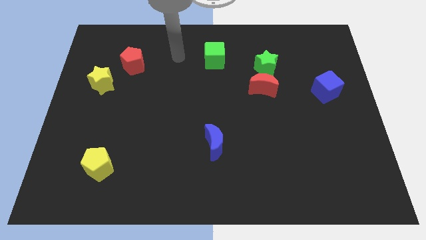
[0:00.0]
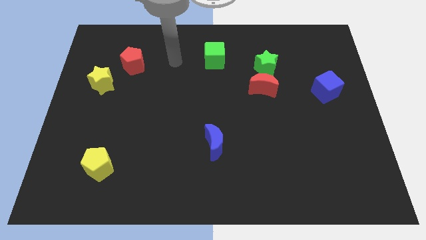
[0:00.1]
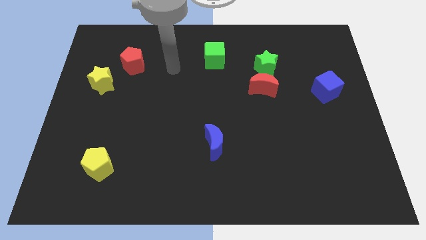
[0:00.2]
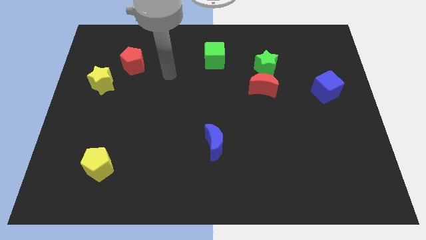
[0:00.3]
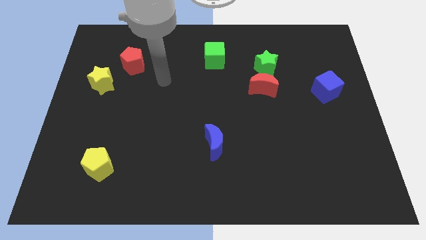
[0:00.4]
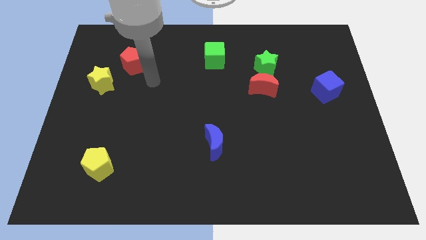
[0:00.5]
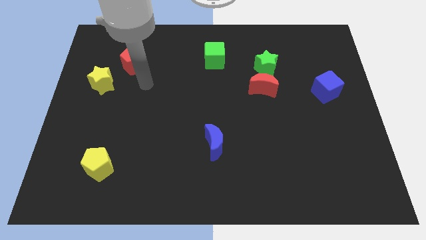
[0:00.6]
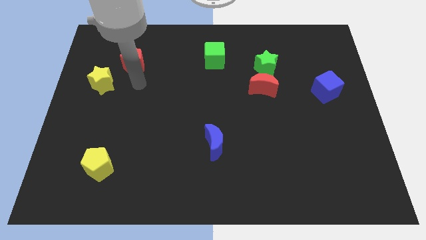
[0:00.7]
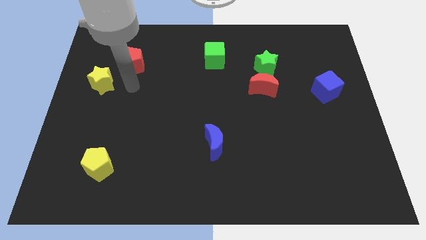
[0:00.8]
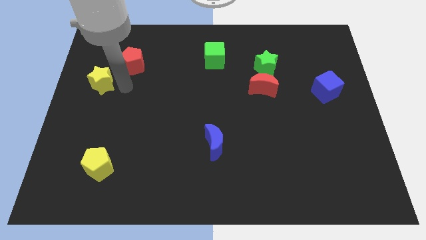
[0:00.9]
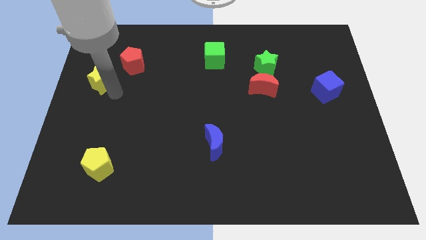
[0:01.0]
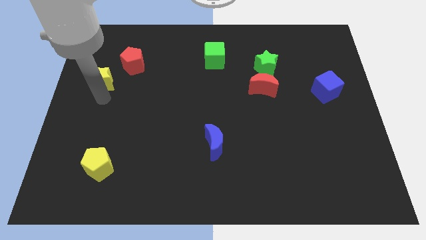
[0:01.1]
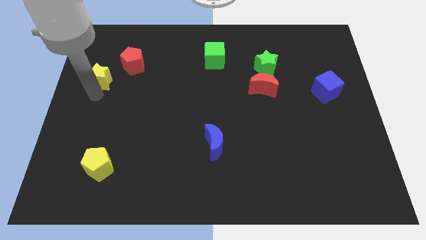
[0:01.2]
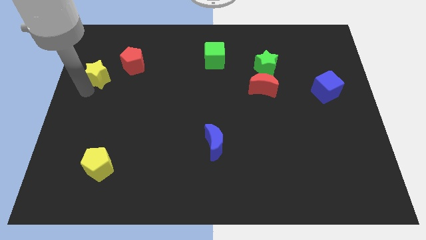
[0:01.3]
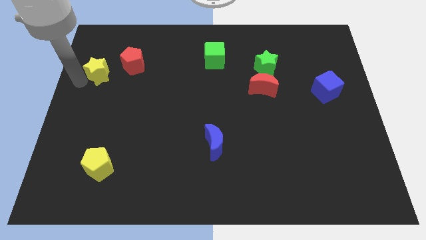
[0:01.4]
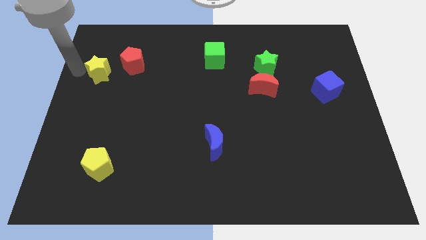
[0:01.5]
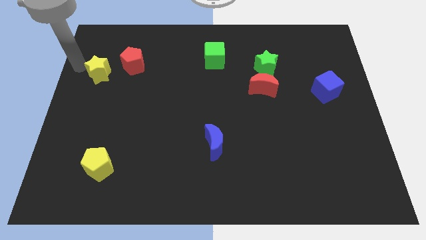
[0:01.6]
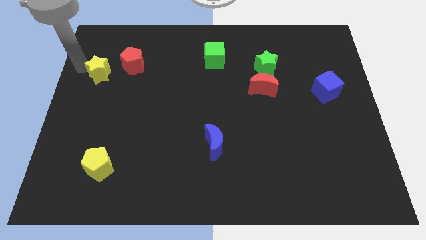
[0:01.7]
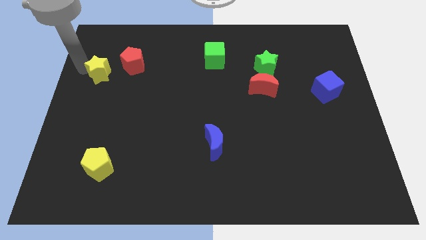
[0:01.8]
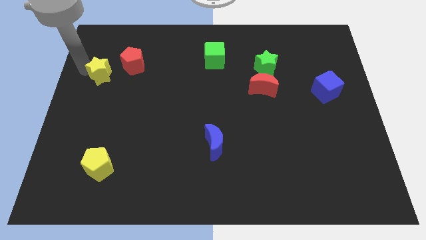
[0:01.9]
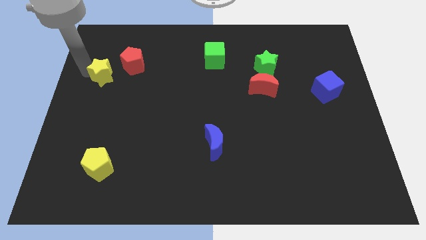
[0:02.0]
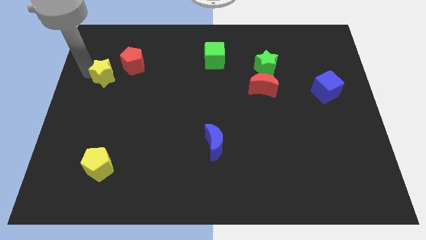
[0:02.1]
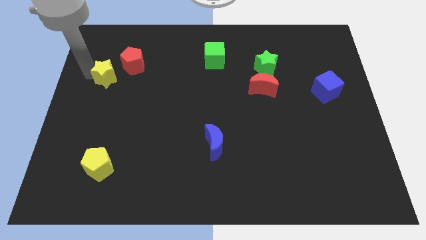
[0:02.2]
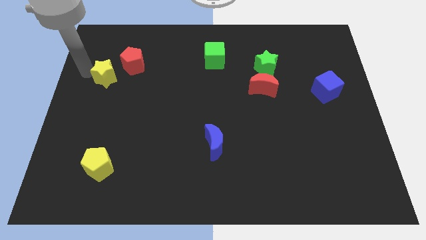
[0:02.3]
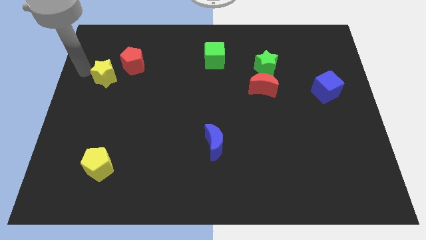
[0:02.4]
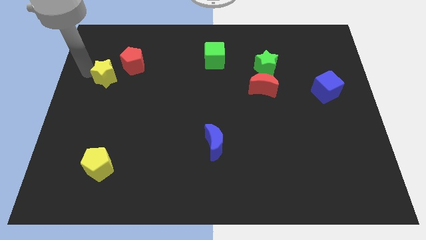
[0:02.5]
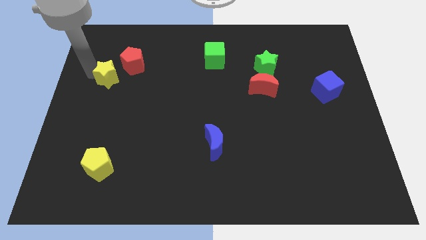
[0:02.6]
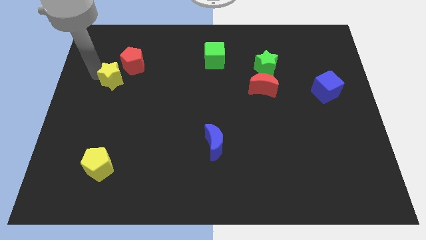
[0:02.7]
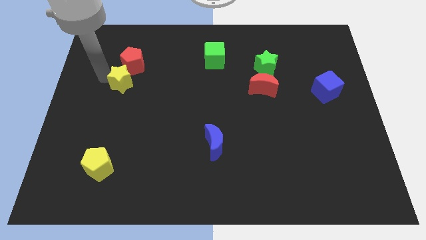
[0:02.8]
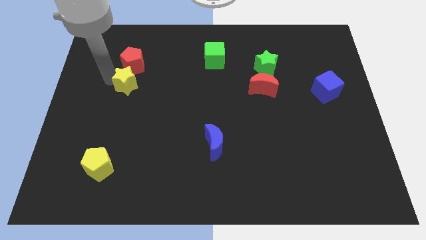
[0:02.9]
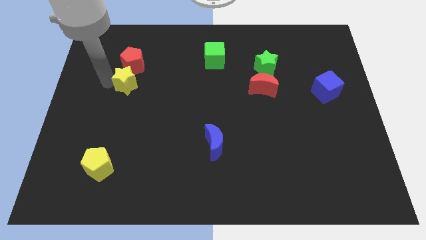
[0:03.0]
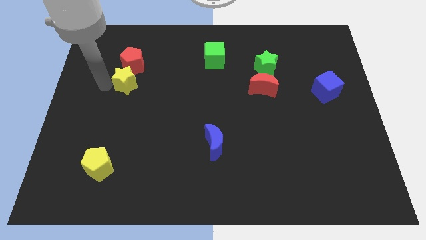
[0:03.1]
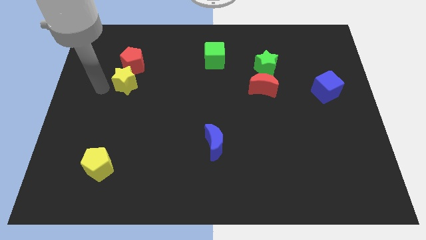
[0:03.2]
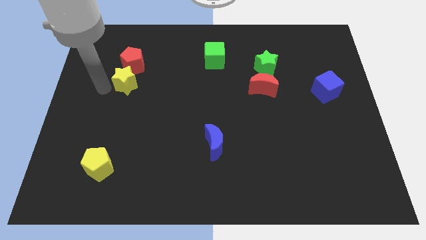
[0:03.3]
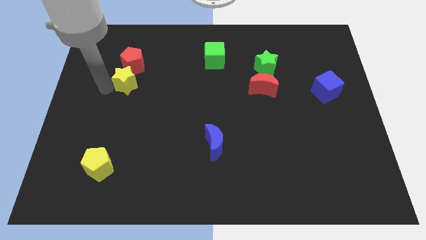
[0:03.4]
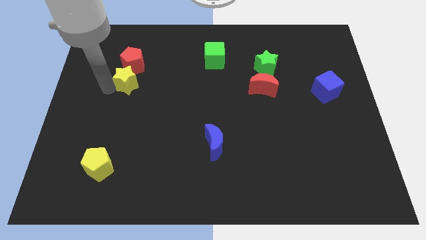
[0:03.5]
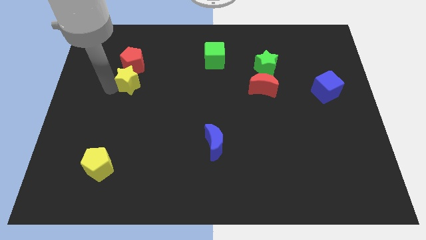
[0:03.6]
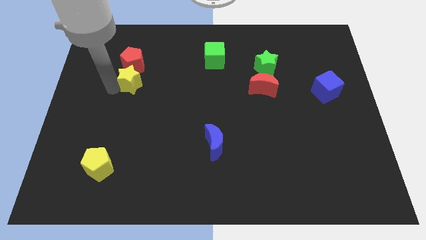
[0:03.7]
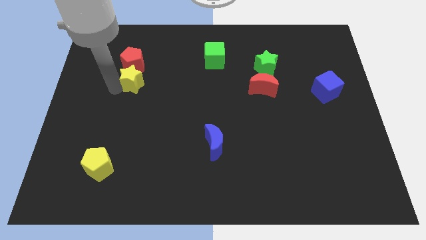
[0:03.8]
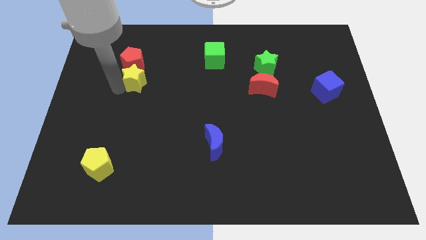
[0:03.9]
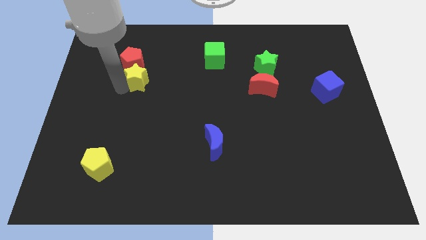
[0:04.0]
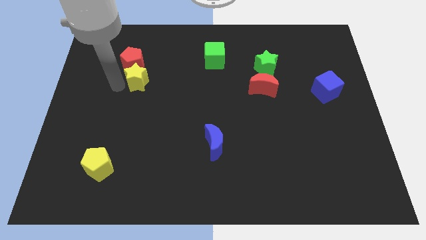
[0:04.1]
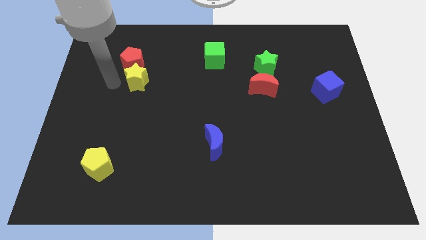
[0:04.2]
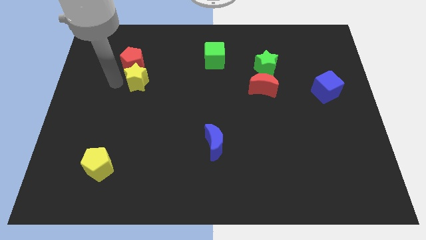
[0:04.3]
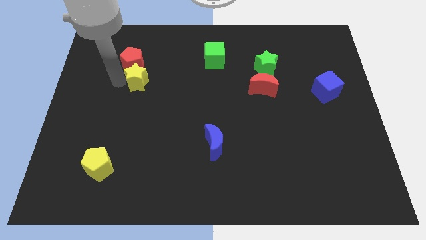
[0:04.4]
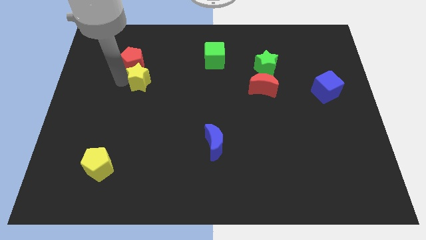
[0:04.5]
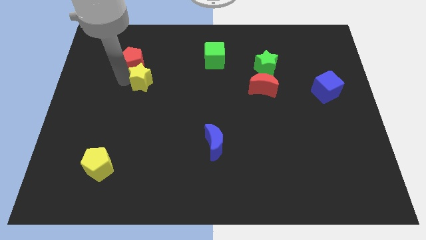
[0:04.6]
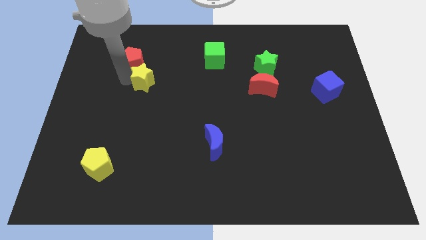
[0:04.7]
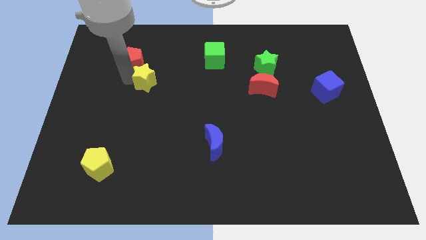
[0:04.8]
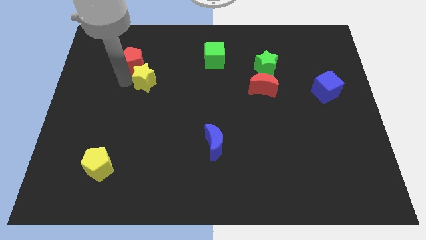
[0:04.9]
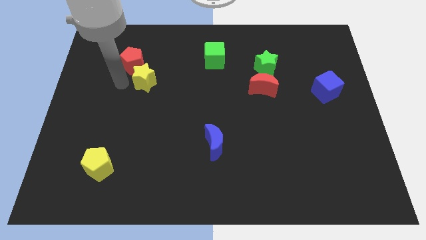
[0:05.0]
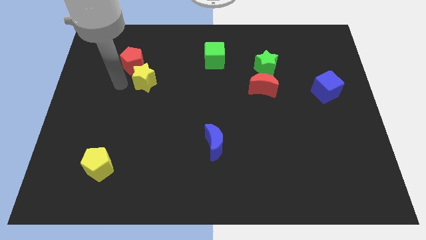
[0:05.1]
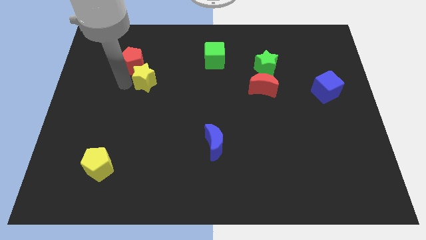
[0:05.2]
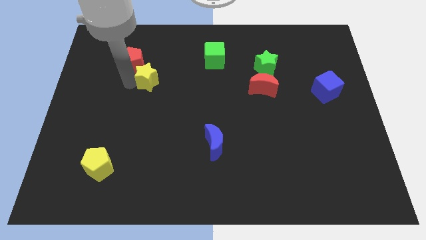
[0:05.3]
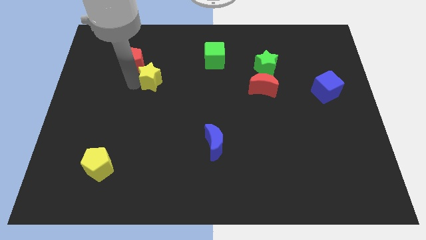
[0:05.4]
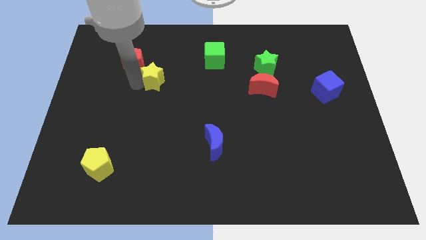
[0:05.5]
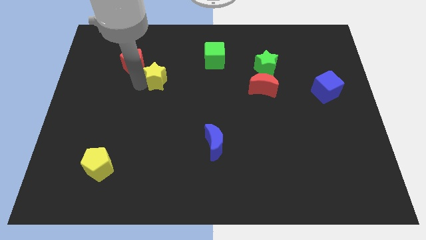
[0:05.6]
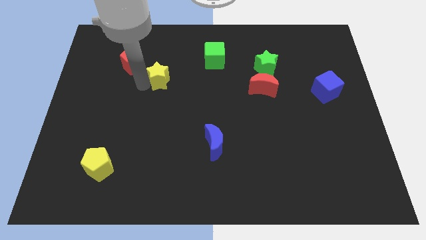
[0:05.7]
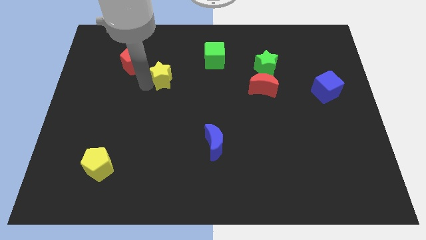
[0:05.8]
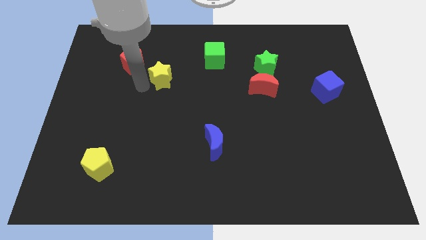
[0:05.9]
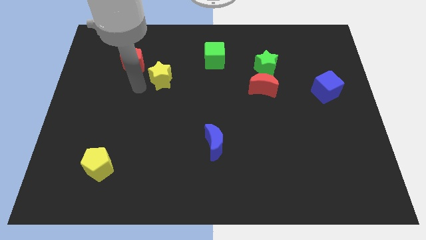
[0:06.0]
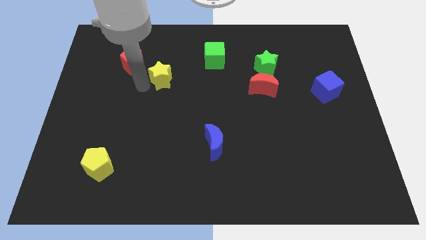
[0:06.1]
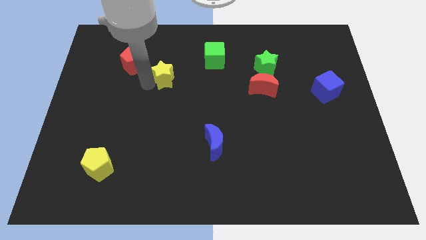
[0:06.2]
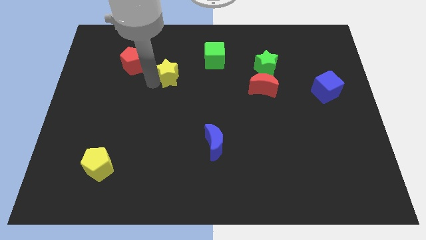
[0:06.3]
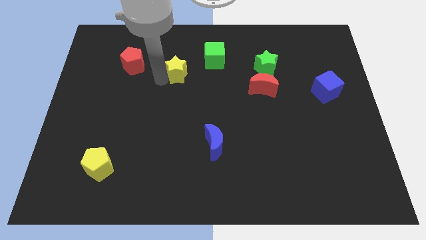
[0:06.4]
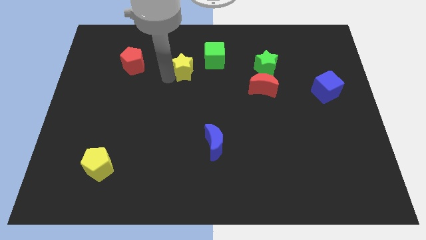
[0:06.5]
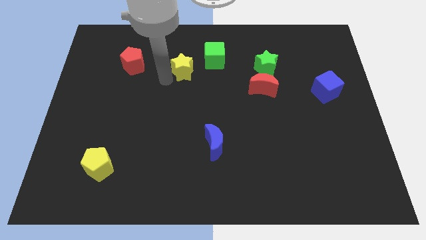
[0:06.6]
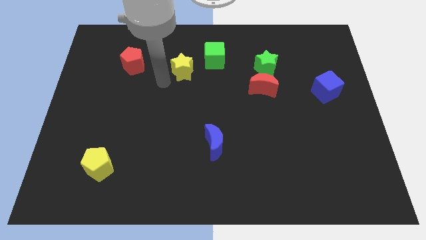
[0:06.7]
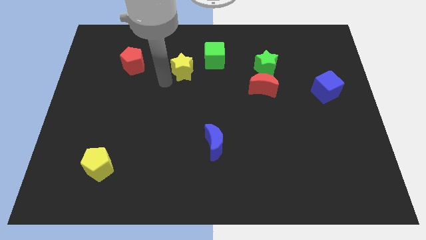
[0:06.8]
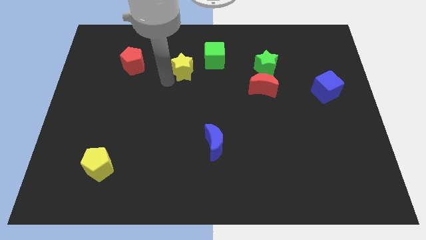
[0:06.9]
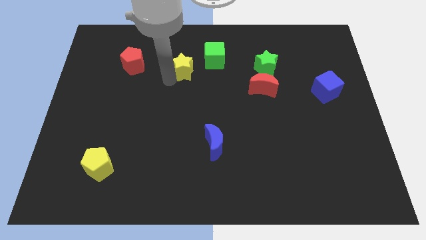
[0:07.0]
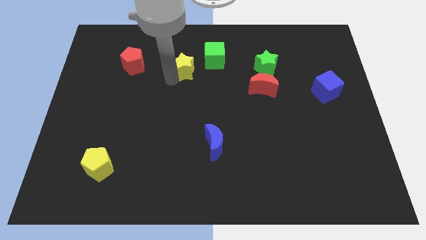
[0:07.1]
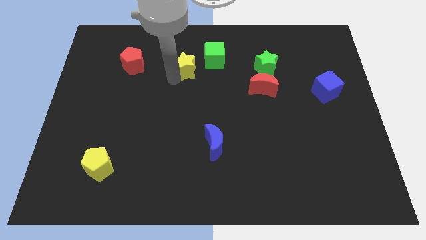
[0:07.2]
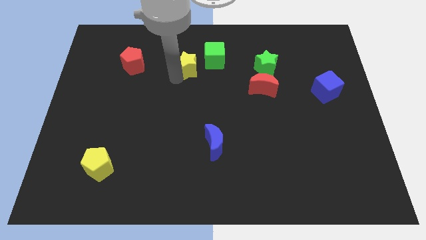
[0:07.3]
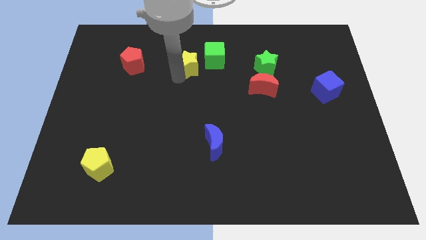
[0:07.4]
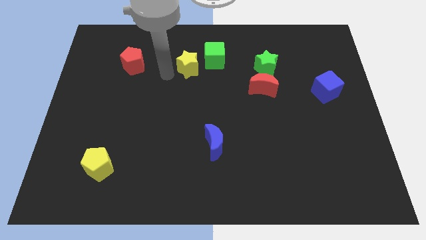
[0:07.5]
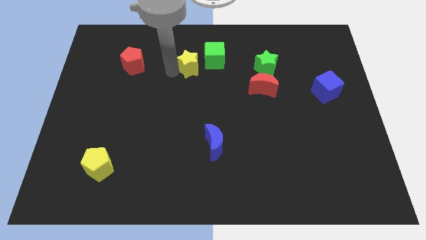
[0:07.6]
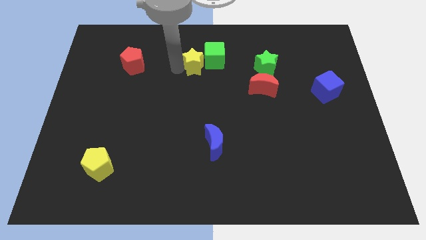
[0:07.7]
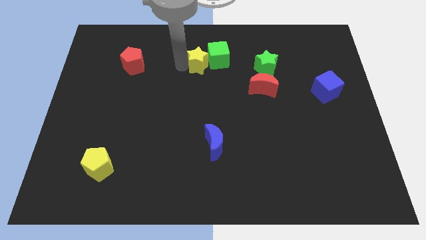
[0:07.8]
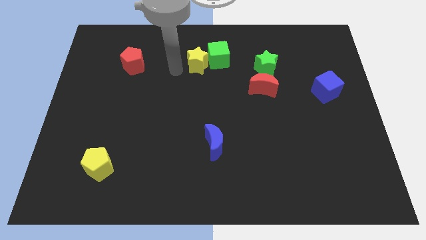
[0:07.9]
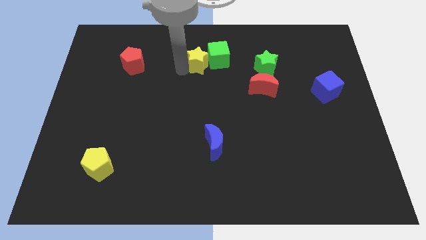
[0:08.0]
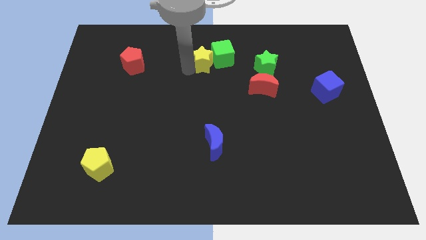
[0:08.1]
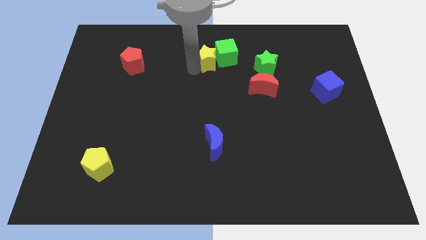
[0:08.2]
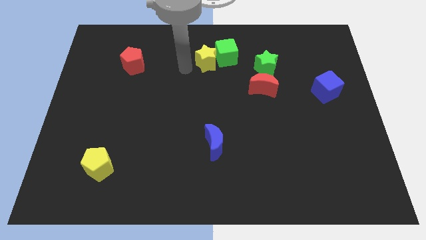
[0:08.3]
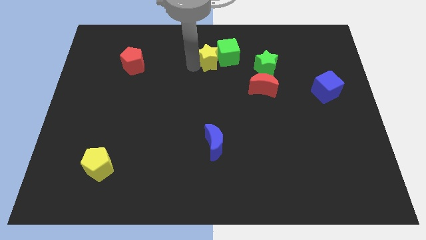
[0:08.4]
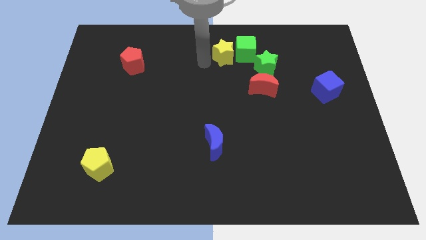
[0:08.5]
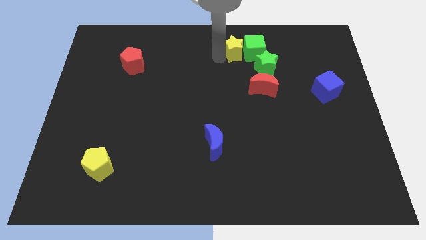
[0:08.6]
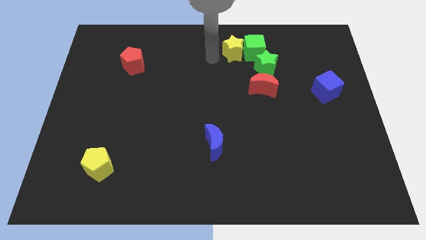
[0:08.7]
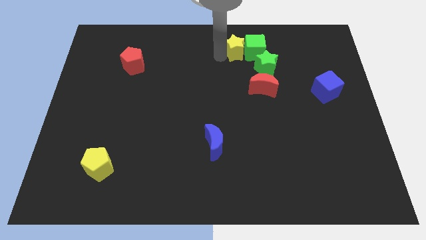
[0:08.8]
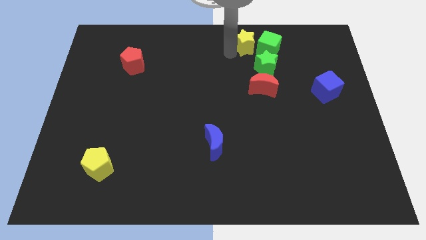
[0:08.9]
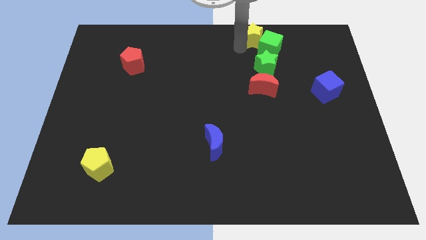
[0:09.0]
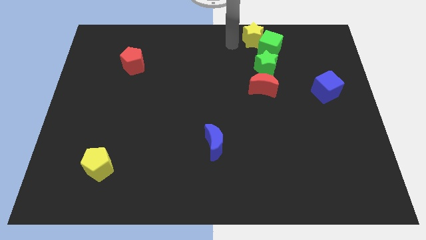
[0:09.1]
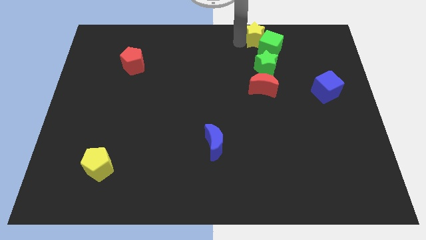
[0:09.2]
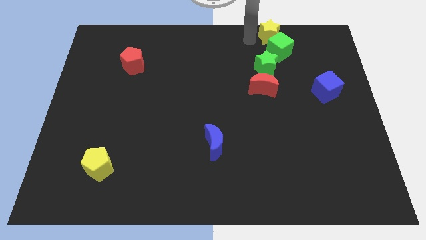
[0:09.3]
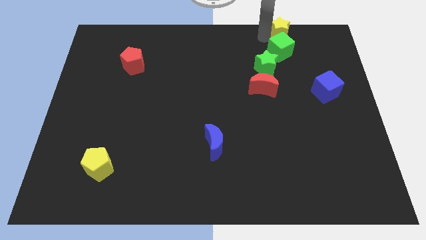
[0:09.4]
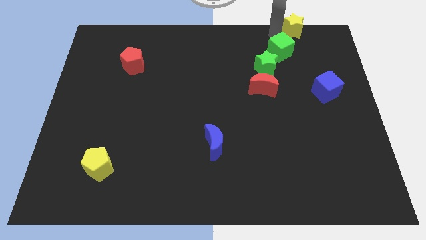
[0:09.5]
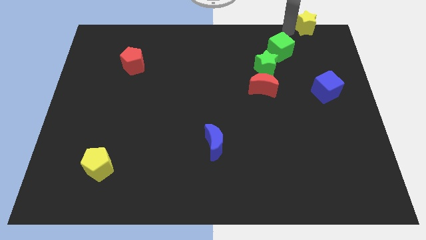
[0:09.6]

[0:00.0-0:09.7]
move the yellow star to the top right
